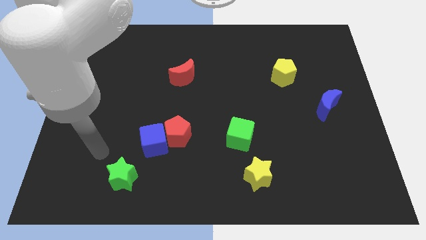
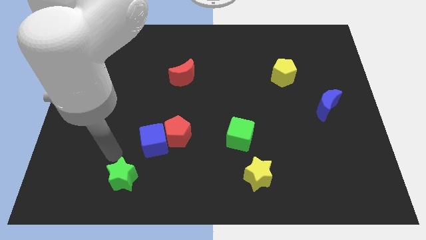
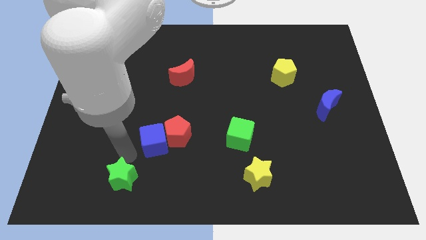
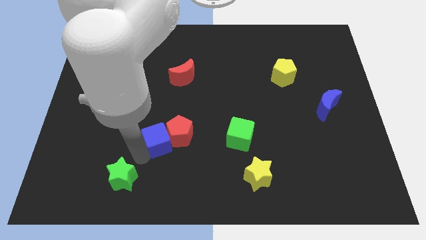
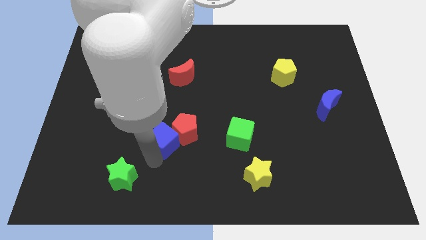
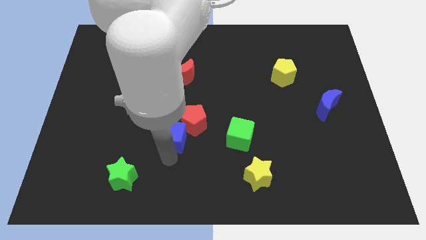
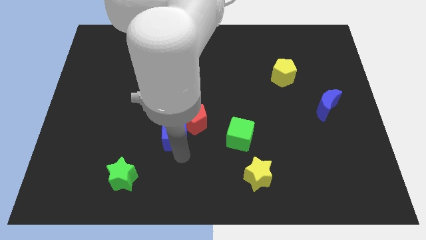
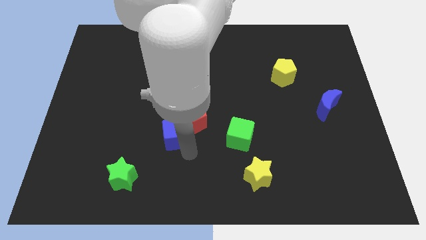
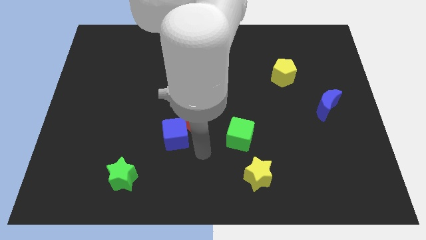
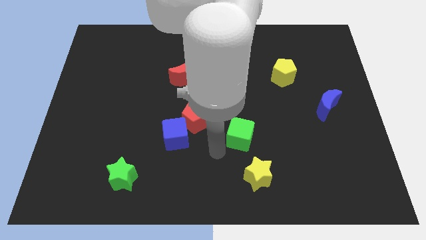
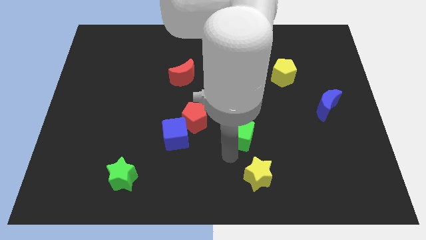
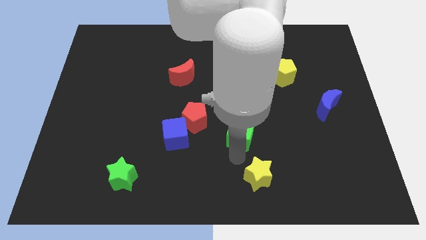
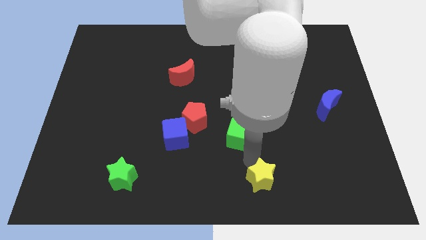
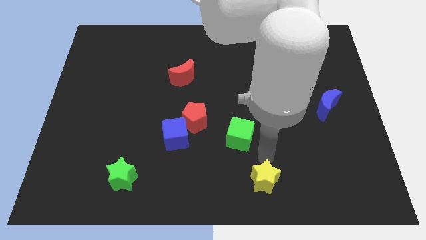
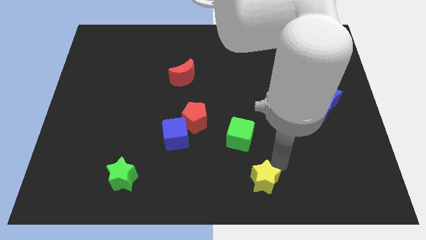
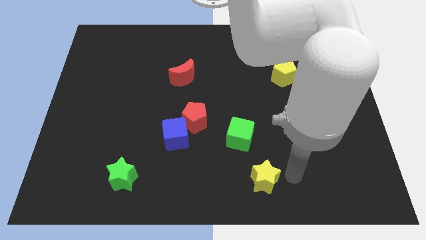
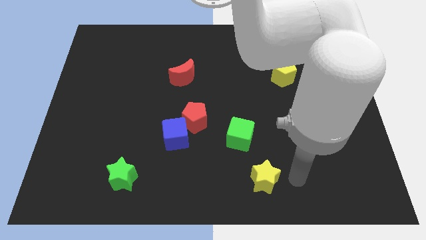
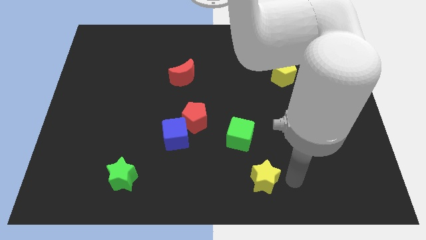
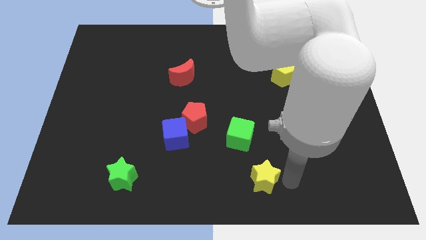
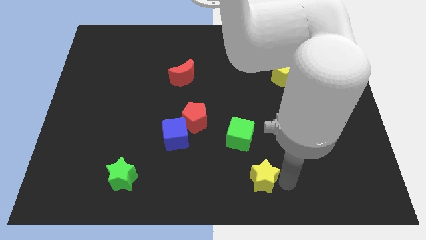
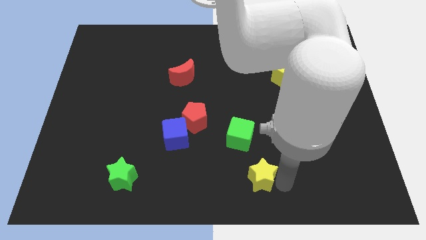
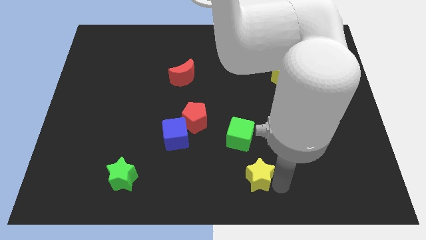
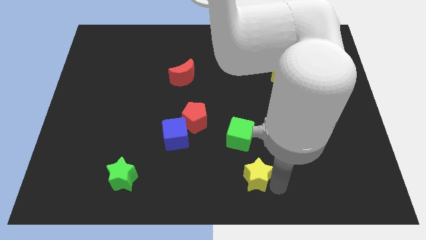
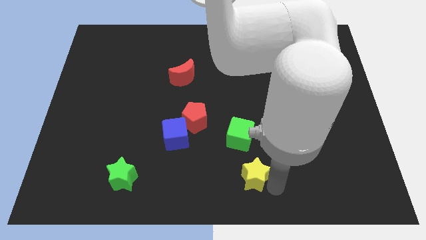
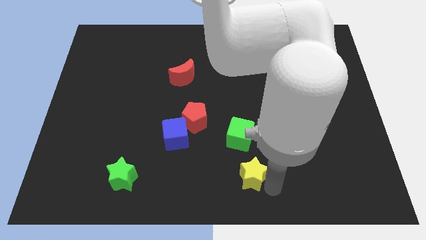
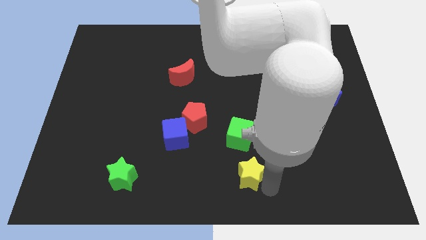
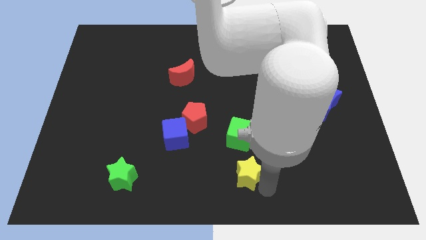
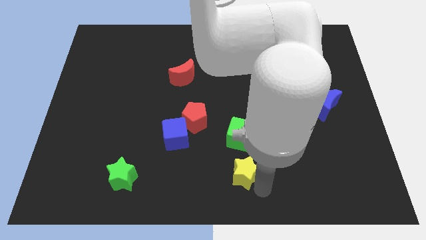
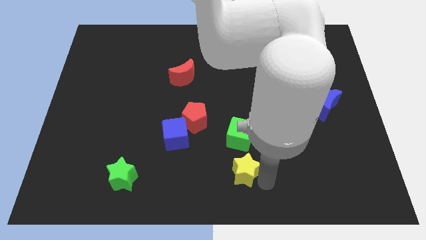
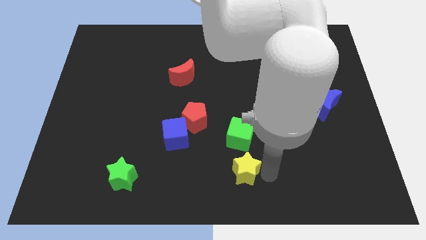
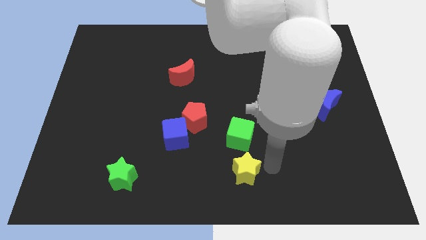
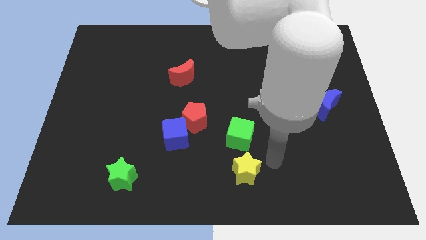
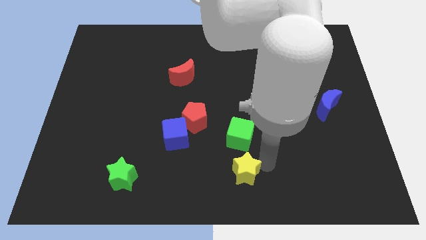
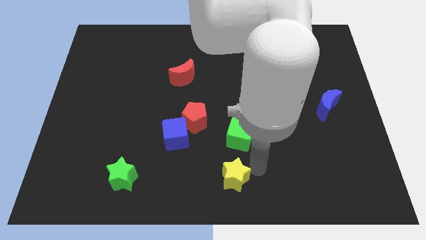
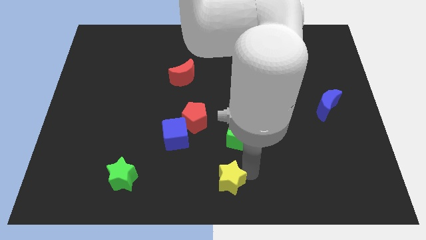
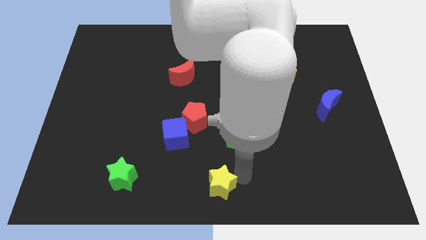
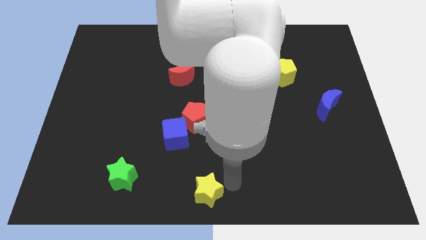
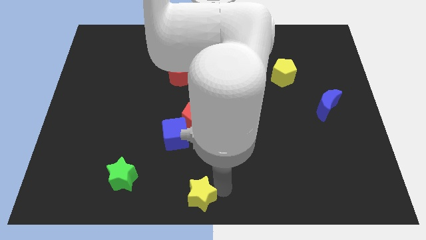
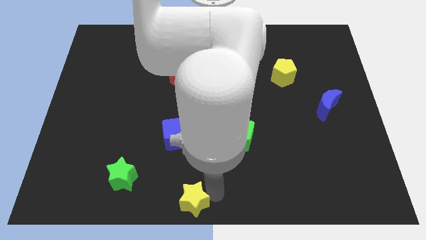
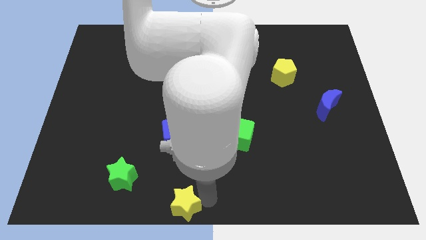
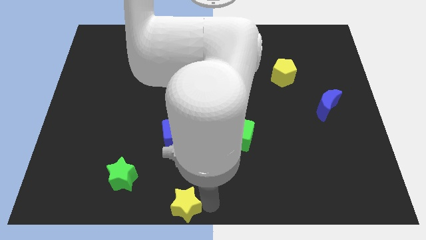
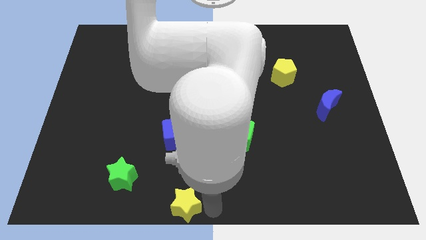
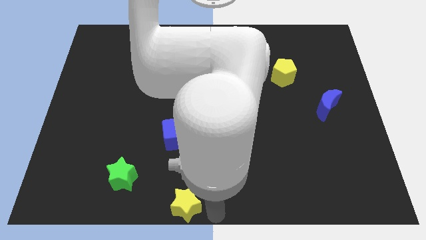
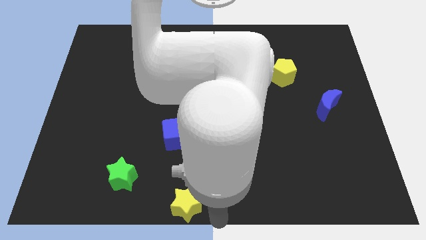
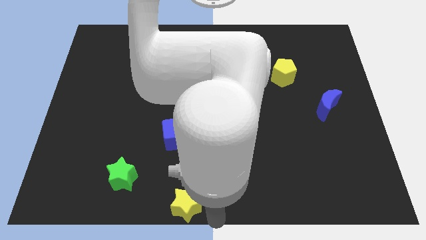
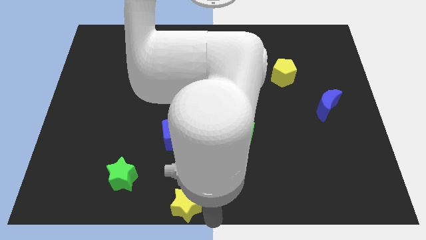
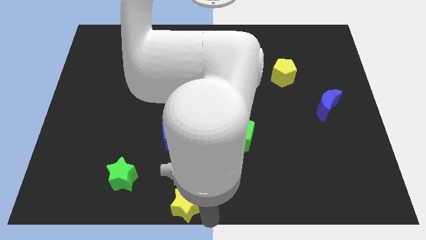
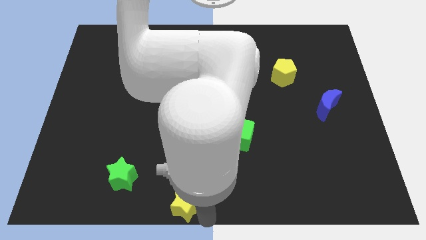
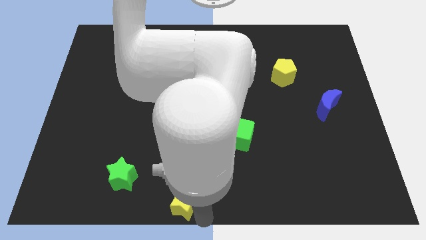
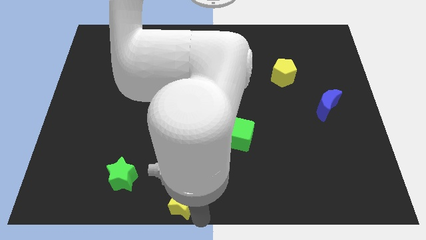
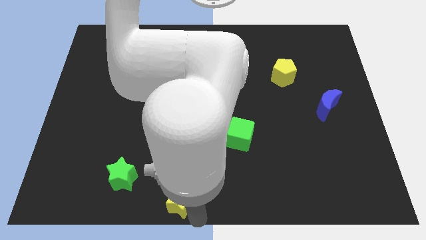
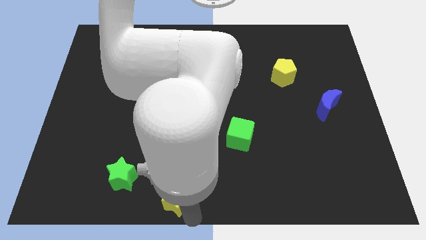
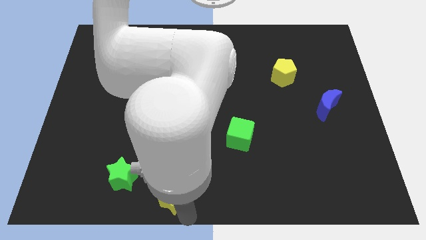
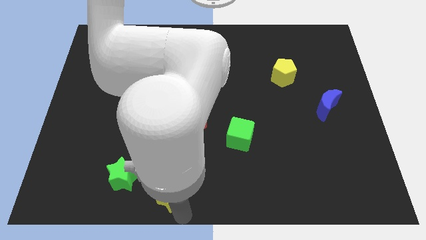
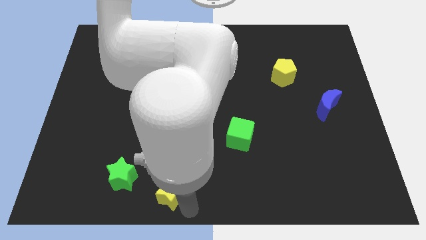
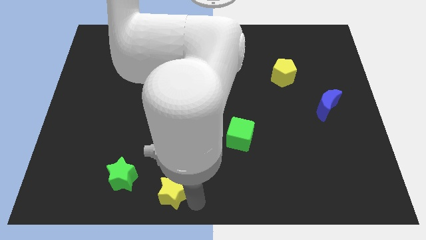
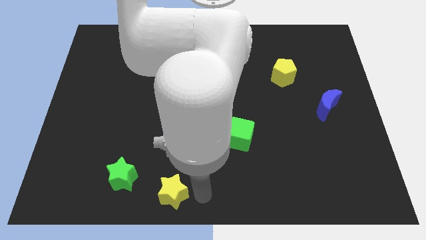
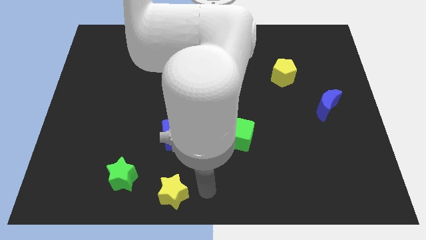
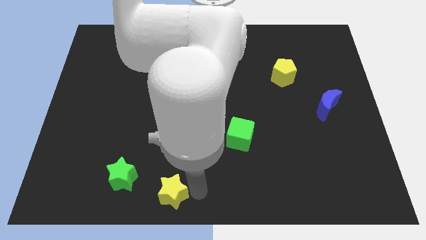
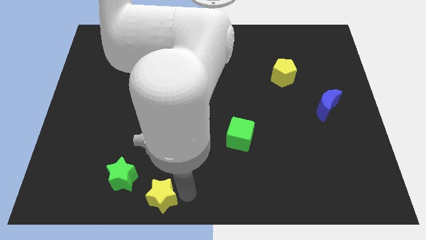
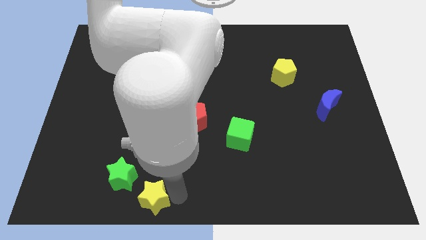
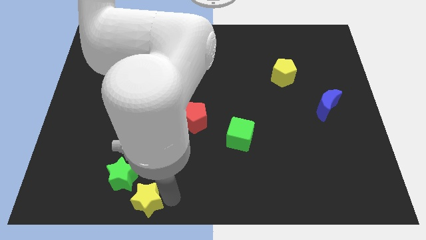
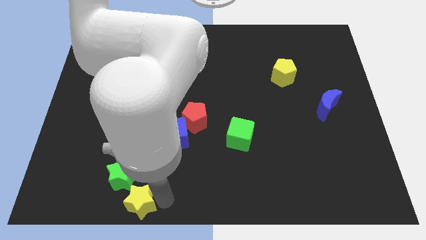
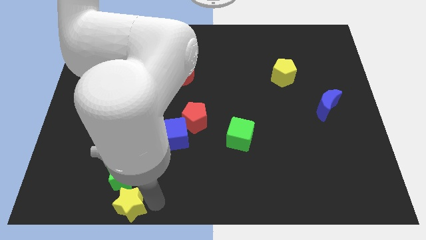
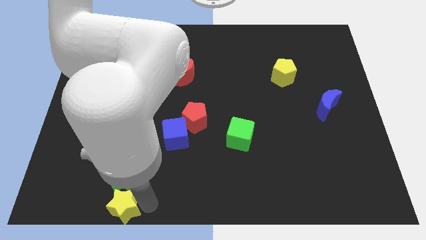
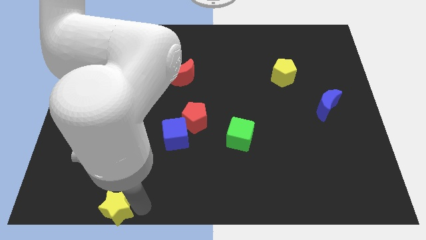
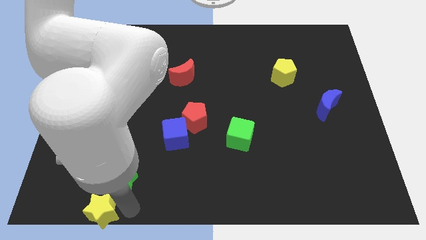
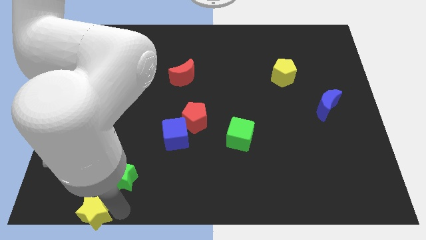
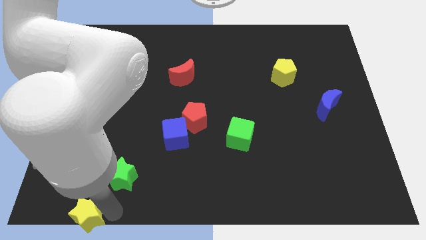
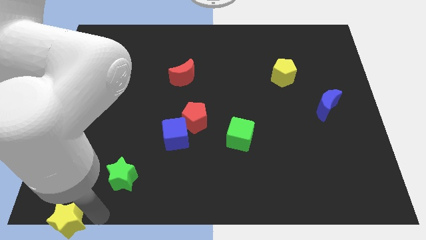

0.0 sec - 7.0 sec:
push the yellow star to the lower left corner
